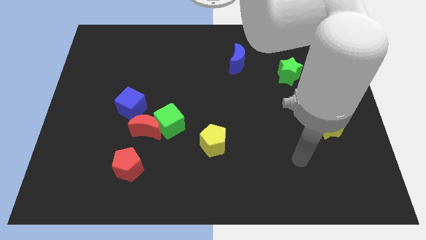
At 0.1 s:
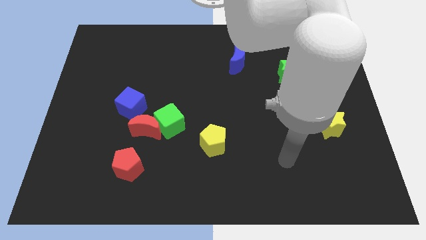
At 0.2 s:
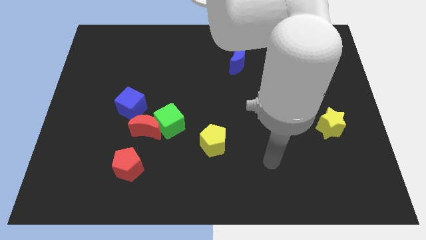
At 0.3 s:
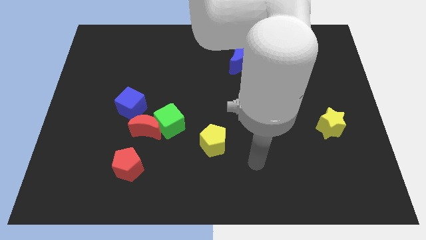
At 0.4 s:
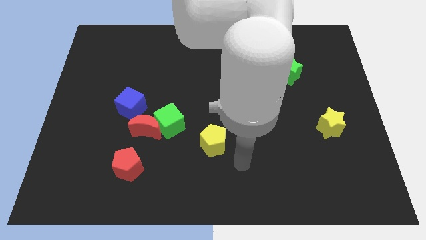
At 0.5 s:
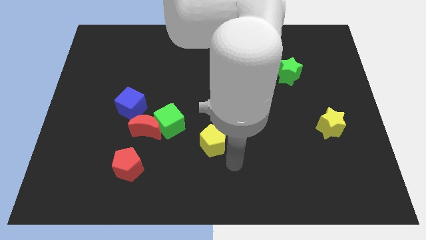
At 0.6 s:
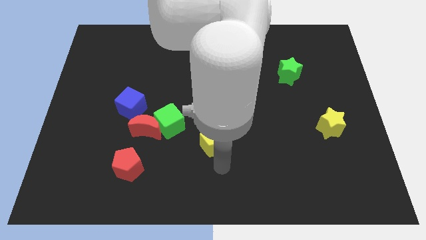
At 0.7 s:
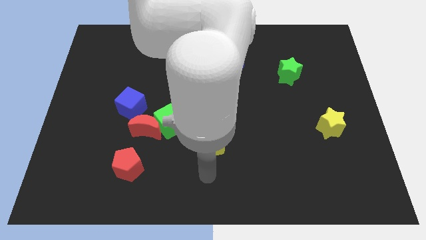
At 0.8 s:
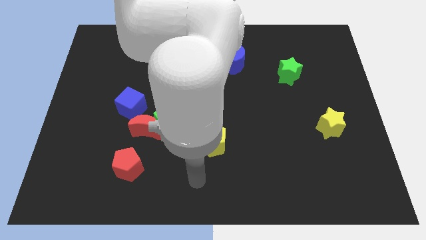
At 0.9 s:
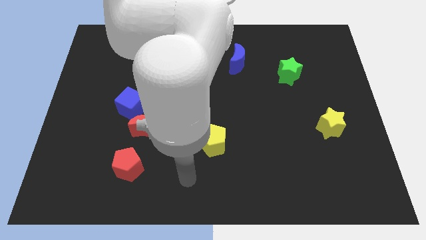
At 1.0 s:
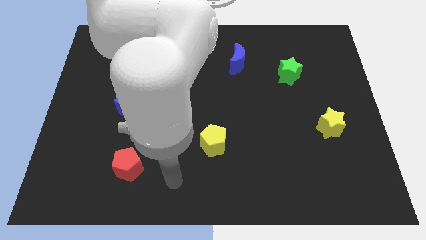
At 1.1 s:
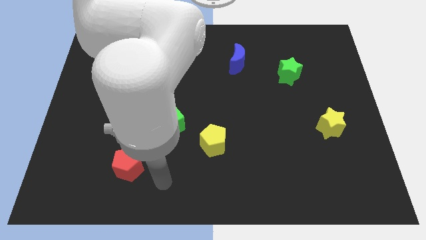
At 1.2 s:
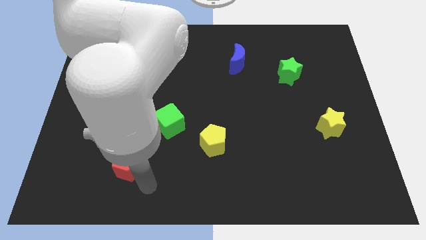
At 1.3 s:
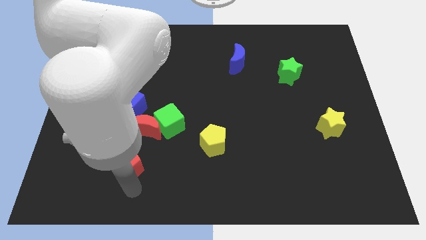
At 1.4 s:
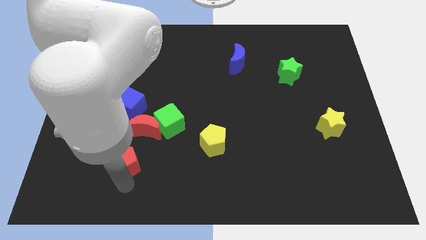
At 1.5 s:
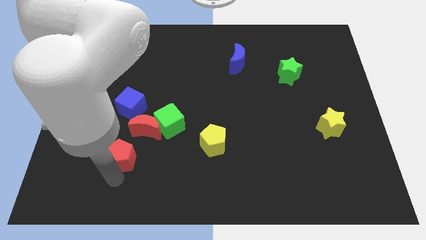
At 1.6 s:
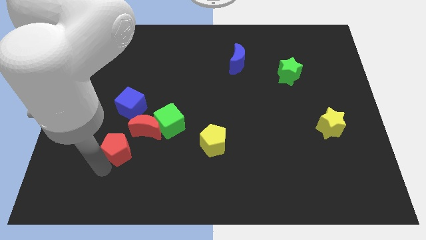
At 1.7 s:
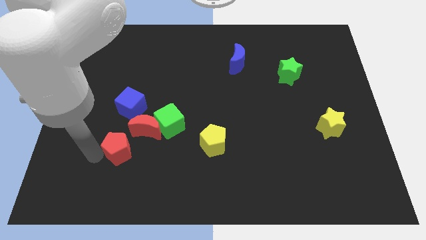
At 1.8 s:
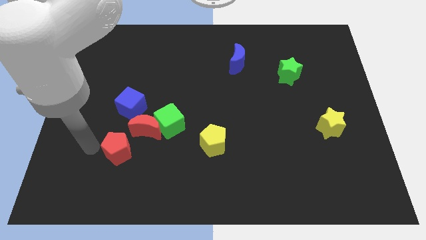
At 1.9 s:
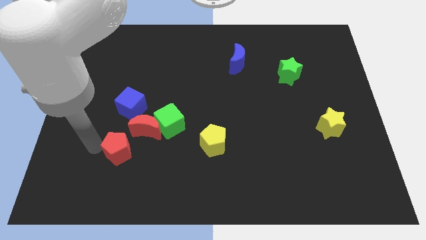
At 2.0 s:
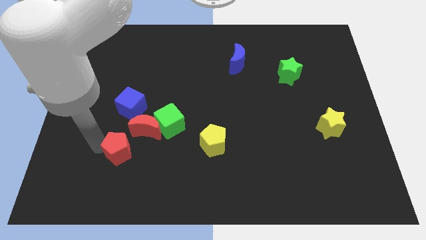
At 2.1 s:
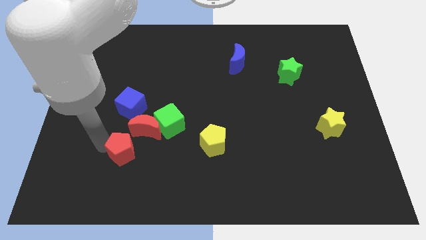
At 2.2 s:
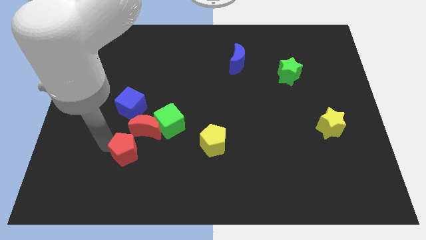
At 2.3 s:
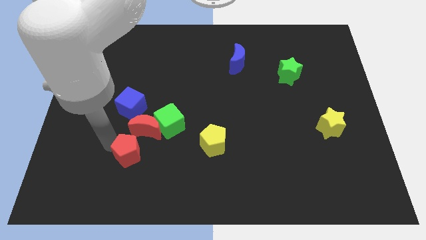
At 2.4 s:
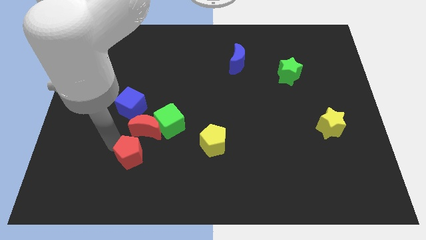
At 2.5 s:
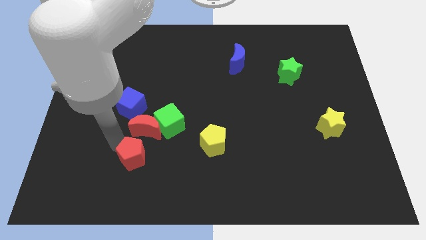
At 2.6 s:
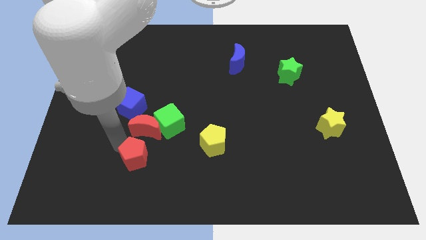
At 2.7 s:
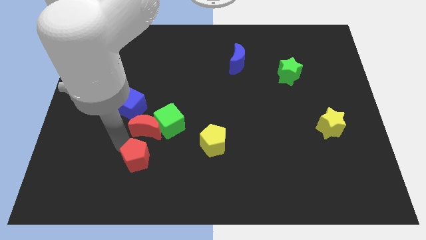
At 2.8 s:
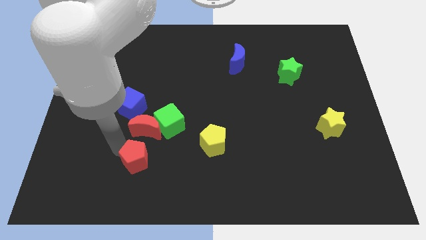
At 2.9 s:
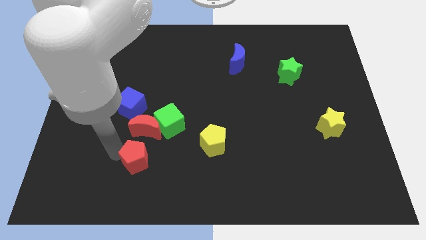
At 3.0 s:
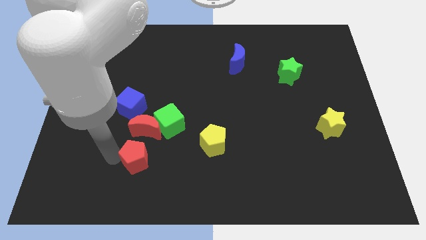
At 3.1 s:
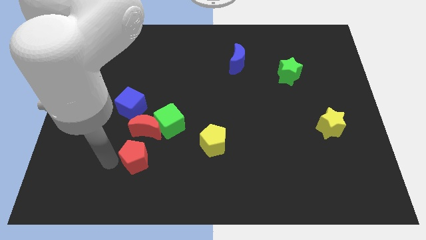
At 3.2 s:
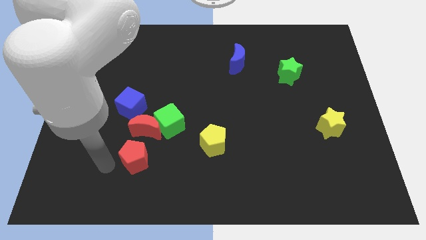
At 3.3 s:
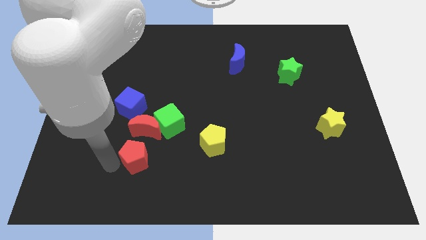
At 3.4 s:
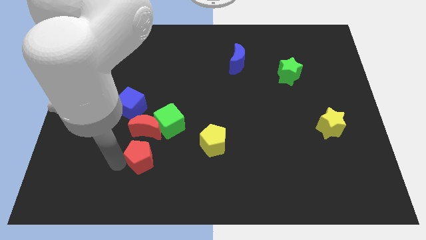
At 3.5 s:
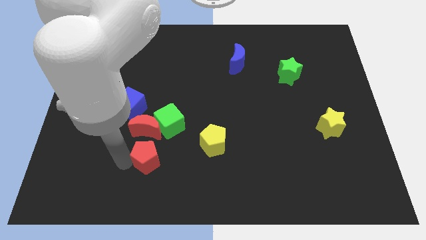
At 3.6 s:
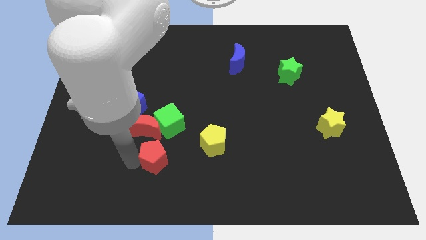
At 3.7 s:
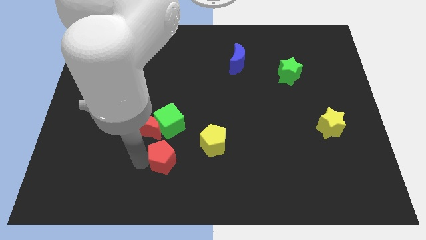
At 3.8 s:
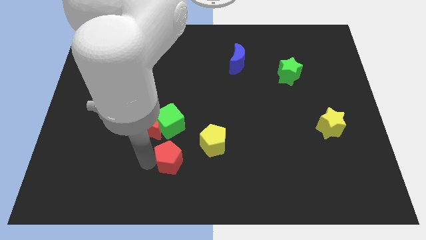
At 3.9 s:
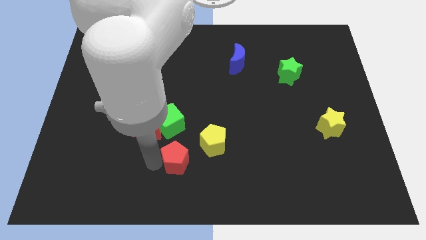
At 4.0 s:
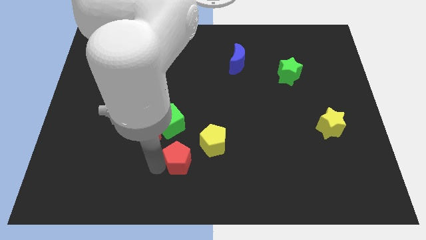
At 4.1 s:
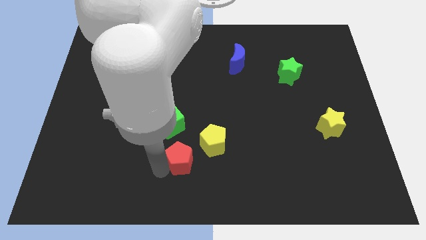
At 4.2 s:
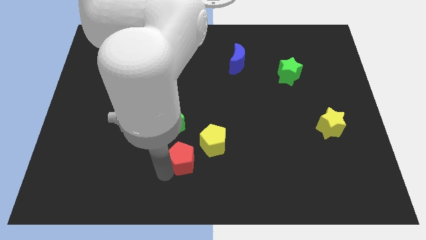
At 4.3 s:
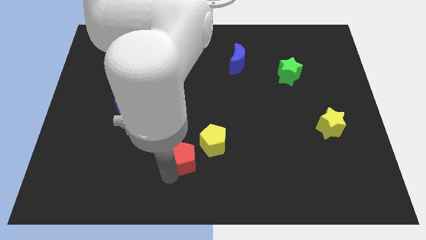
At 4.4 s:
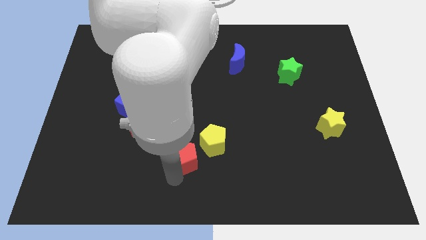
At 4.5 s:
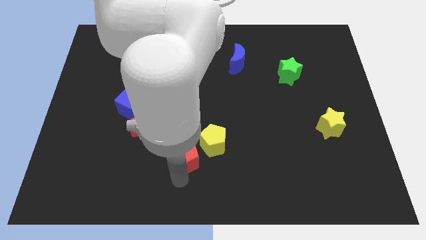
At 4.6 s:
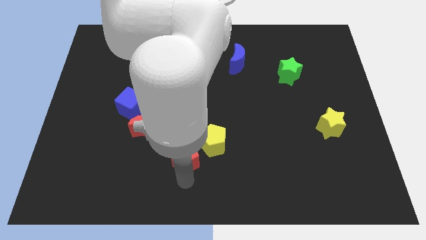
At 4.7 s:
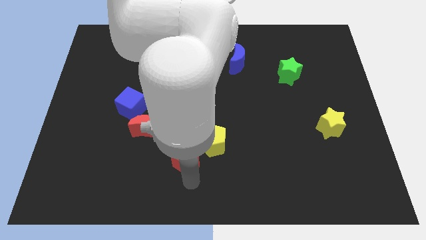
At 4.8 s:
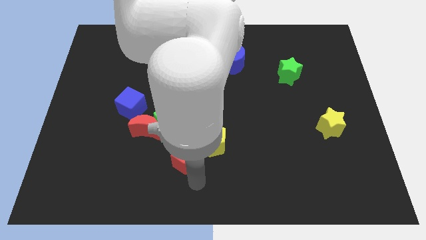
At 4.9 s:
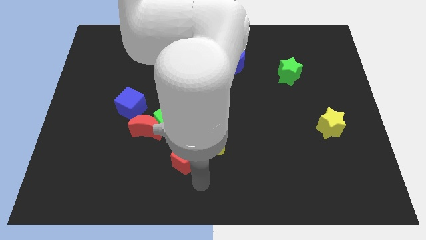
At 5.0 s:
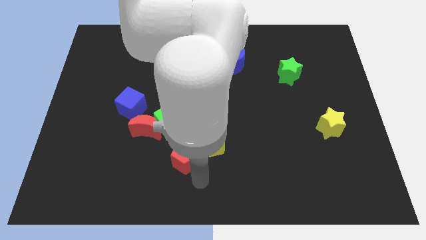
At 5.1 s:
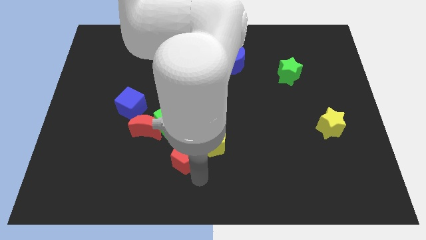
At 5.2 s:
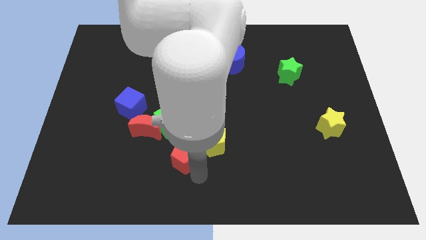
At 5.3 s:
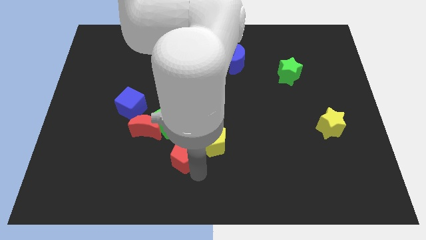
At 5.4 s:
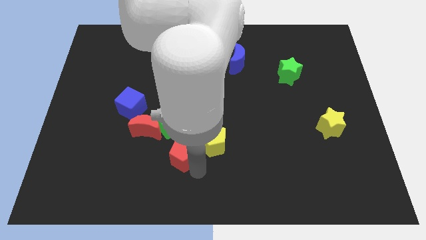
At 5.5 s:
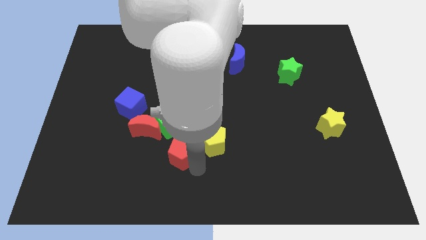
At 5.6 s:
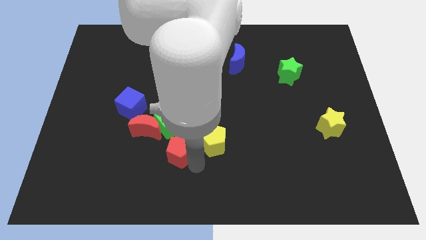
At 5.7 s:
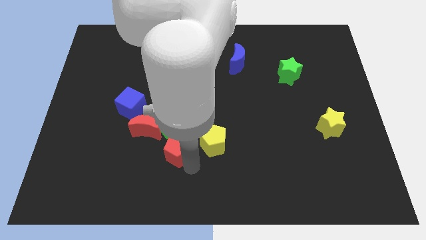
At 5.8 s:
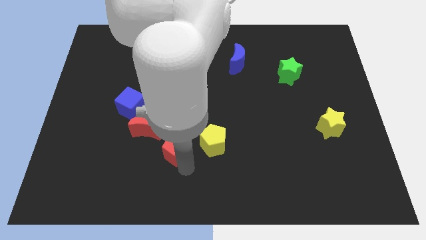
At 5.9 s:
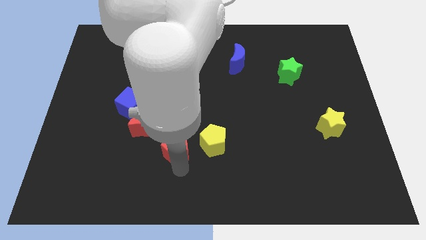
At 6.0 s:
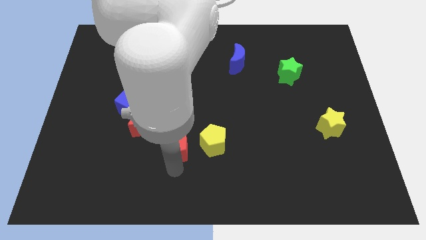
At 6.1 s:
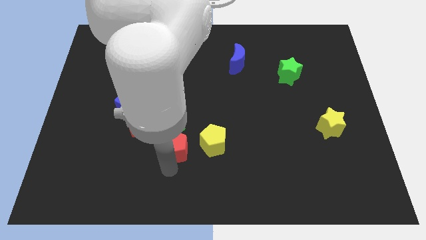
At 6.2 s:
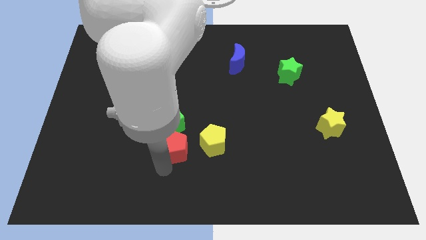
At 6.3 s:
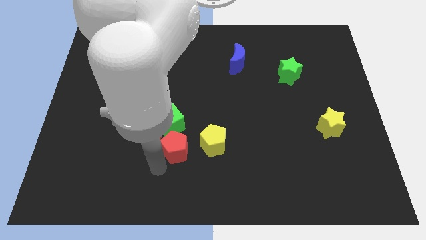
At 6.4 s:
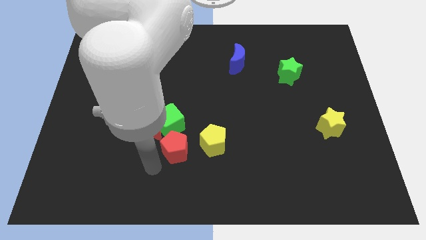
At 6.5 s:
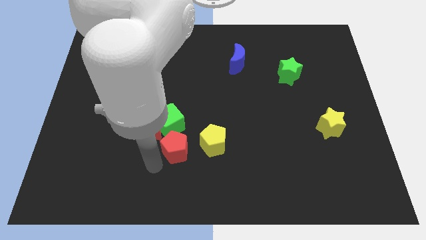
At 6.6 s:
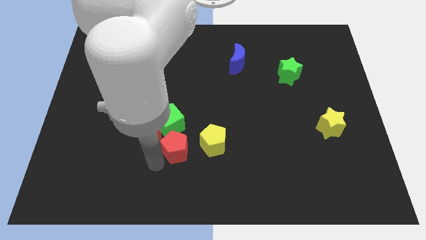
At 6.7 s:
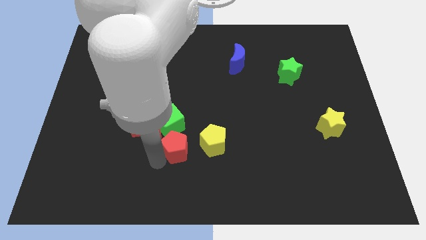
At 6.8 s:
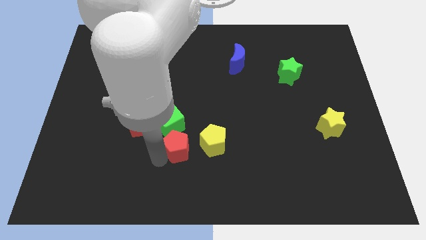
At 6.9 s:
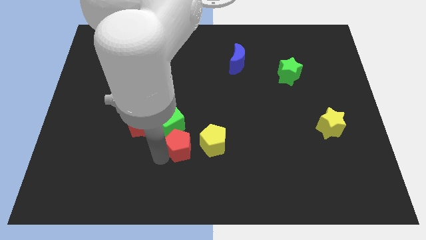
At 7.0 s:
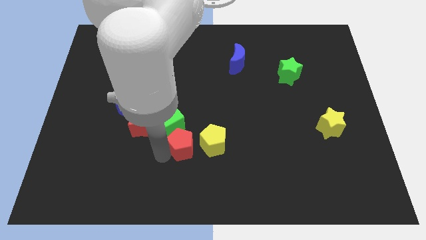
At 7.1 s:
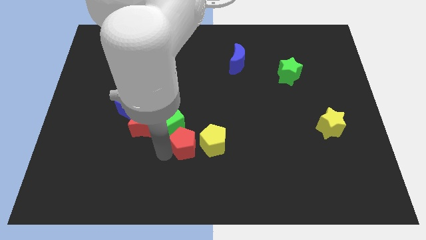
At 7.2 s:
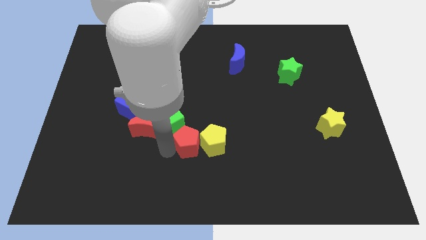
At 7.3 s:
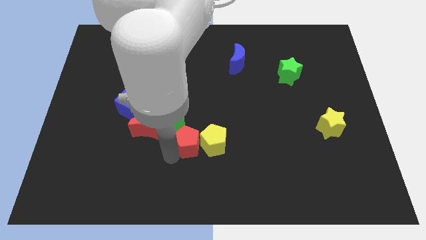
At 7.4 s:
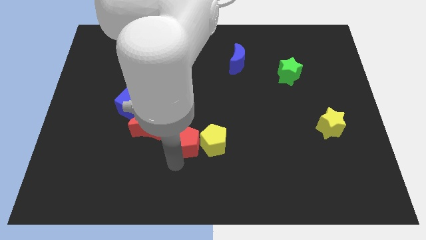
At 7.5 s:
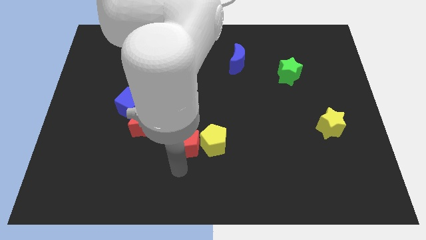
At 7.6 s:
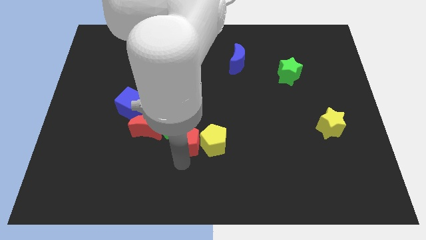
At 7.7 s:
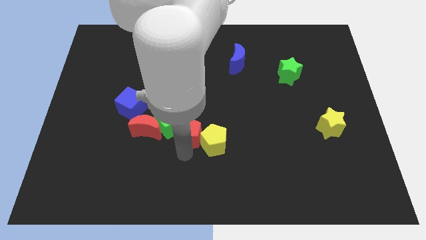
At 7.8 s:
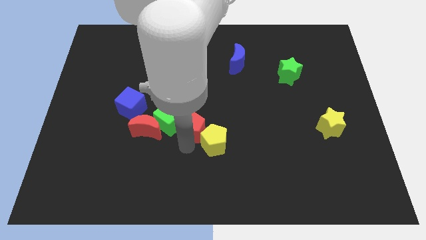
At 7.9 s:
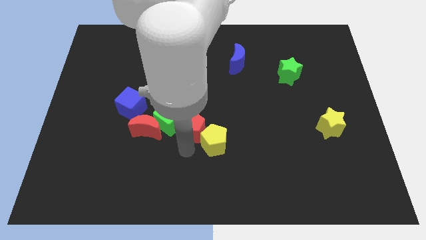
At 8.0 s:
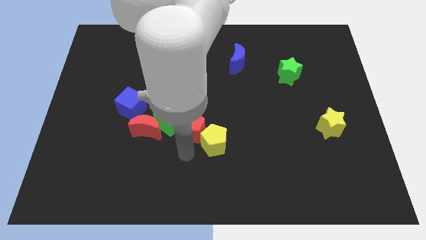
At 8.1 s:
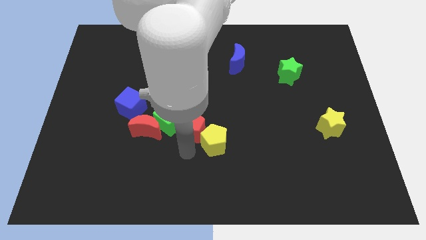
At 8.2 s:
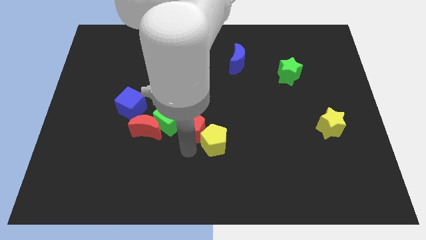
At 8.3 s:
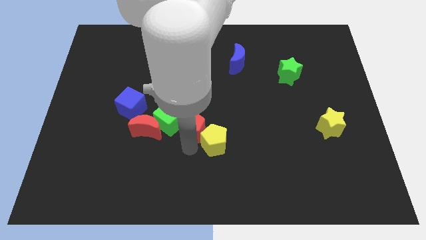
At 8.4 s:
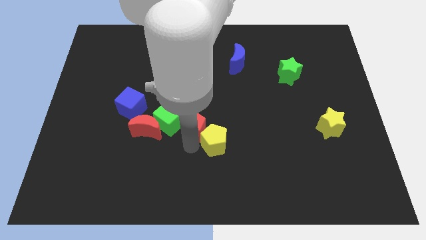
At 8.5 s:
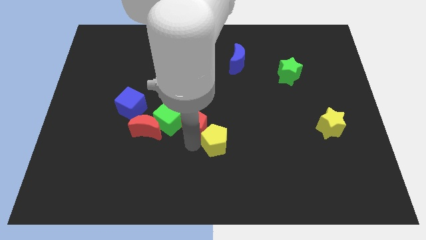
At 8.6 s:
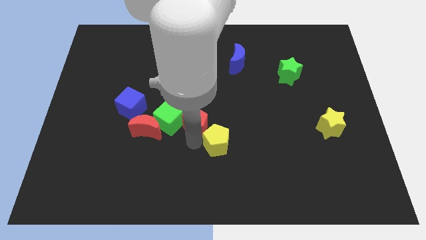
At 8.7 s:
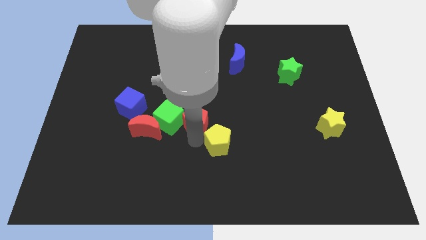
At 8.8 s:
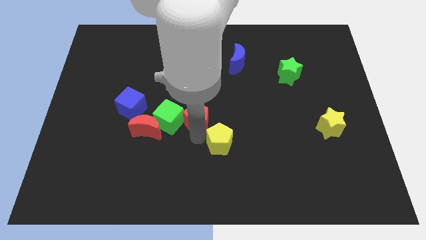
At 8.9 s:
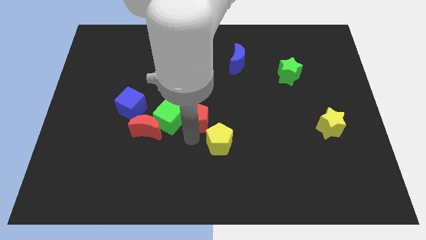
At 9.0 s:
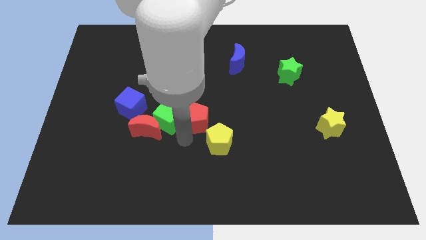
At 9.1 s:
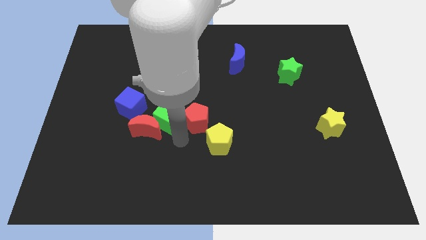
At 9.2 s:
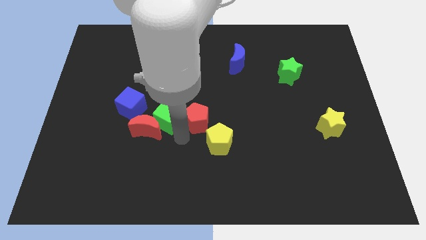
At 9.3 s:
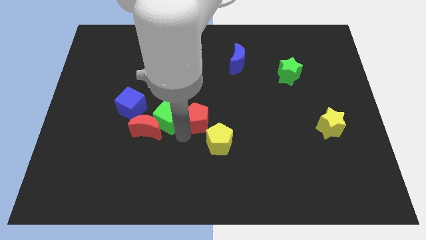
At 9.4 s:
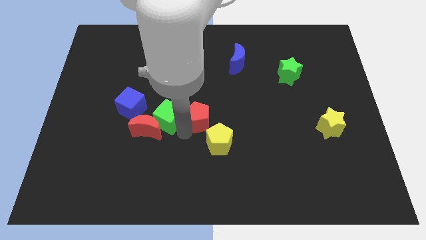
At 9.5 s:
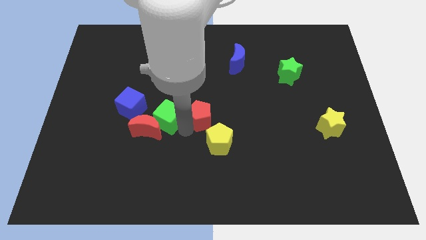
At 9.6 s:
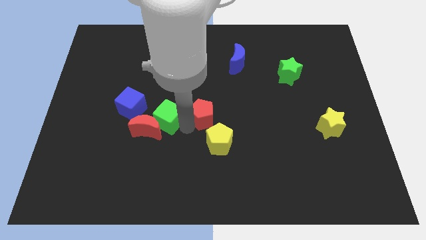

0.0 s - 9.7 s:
slide the red pentagon upwards and then right
